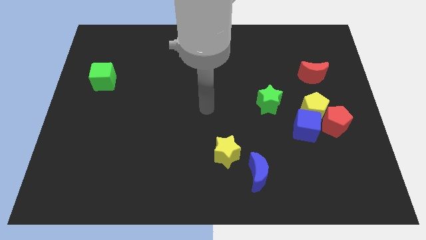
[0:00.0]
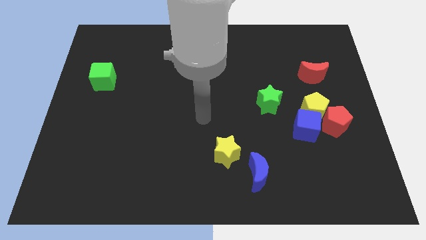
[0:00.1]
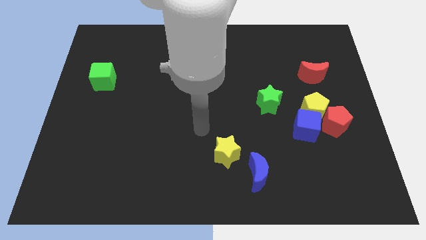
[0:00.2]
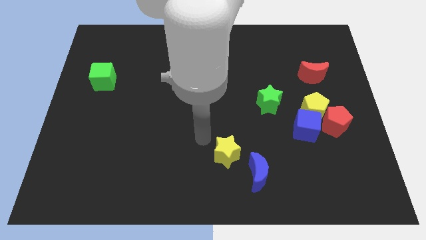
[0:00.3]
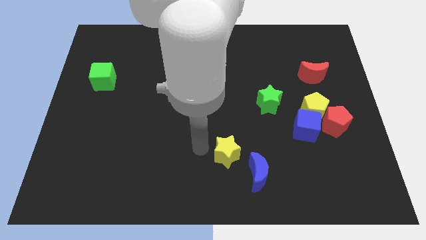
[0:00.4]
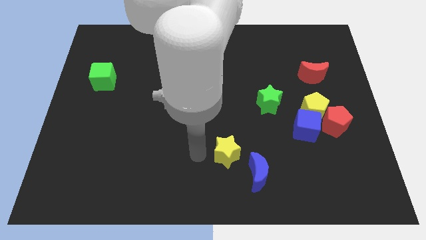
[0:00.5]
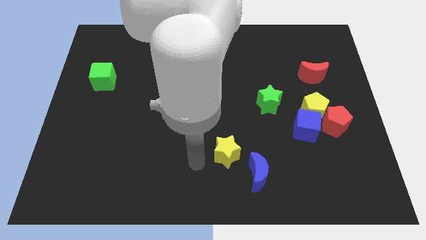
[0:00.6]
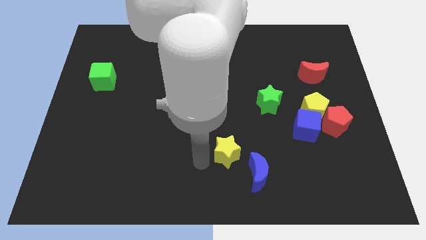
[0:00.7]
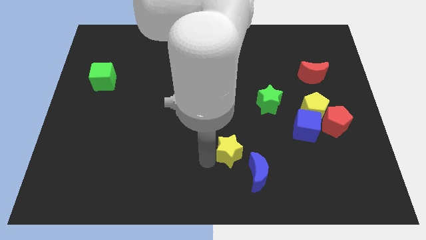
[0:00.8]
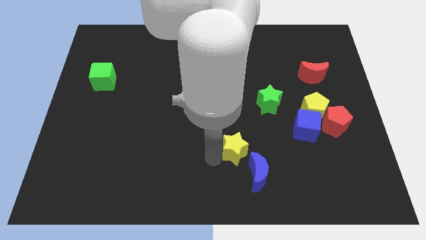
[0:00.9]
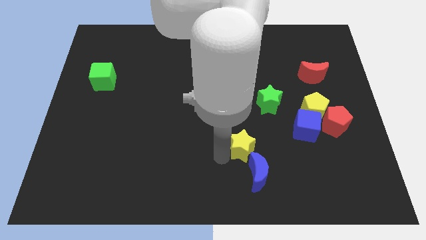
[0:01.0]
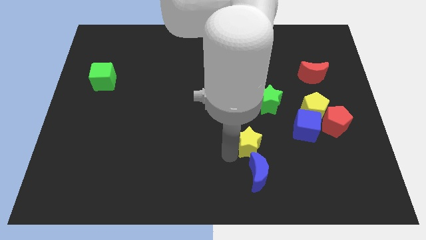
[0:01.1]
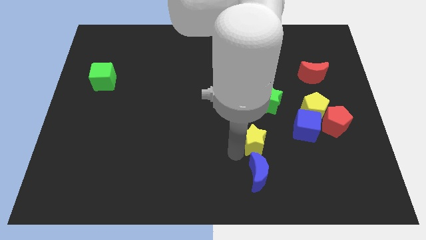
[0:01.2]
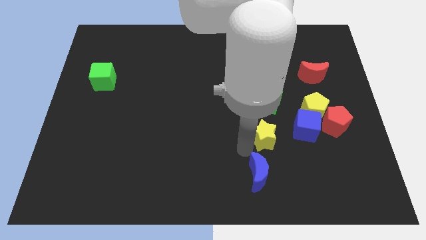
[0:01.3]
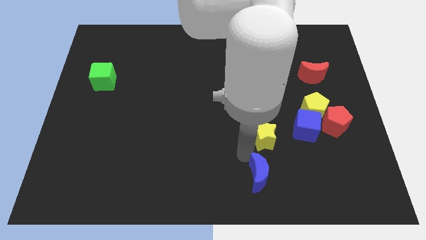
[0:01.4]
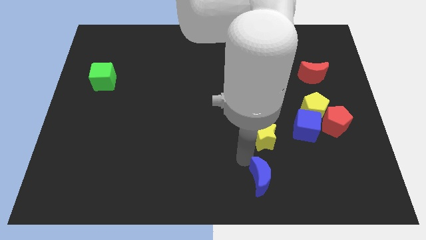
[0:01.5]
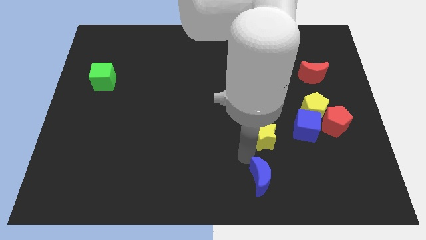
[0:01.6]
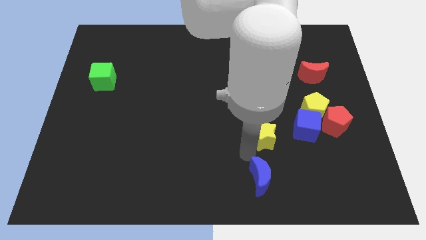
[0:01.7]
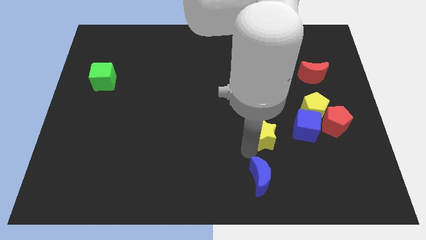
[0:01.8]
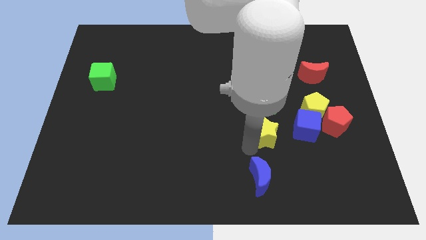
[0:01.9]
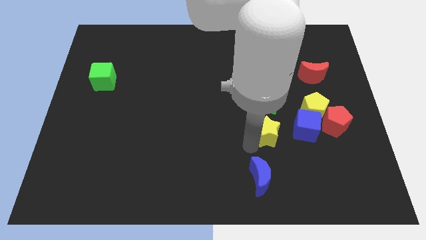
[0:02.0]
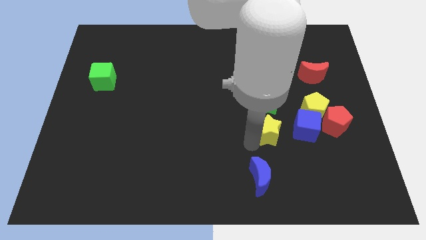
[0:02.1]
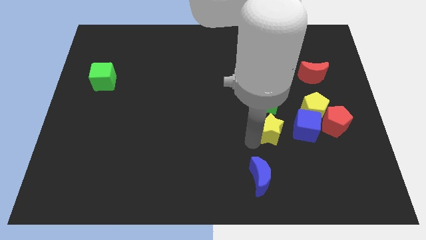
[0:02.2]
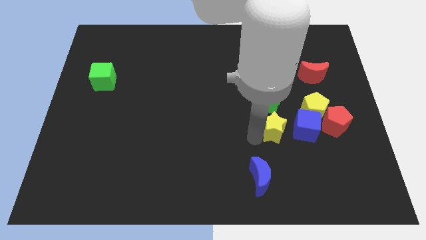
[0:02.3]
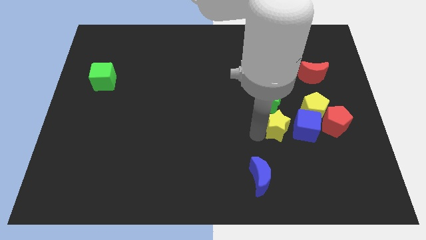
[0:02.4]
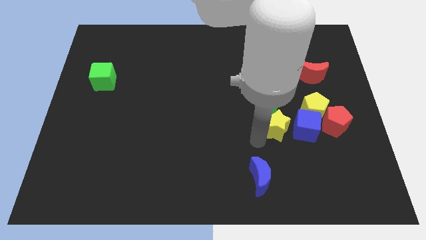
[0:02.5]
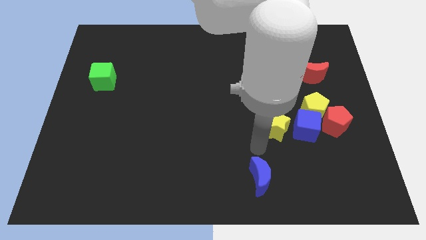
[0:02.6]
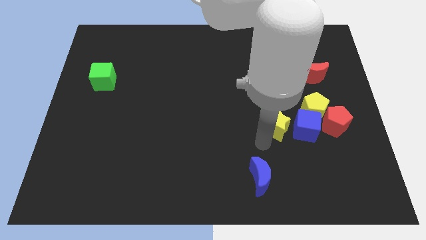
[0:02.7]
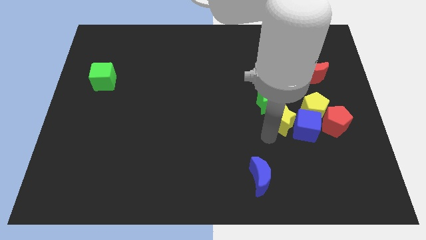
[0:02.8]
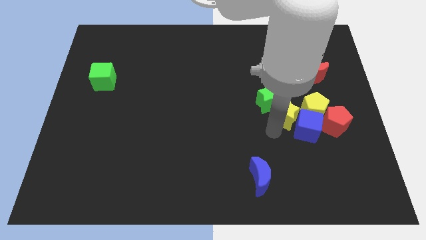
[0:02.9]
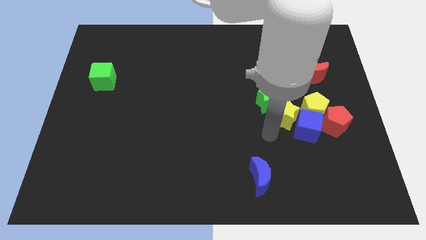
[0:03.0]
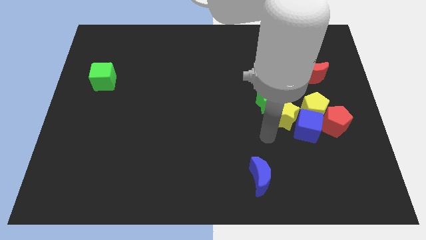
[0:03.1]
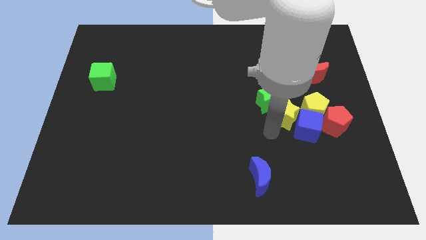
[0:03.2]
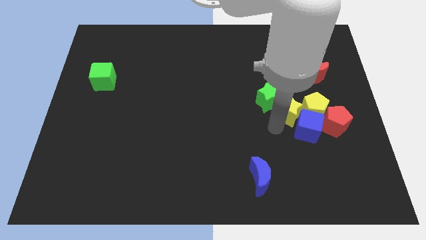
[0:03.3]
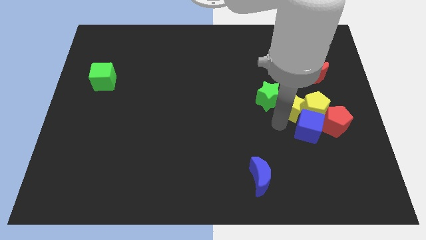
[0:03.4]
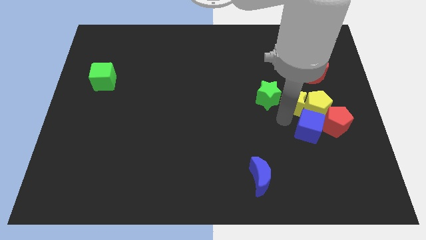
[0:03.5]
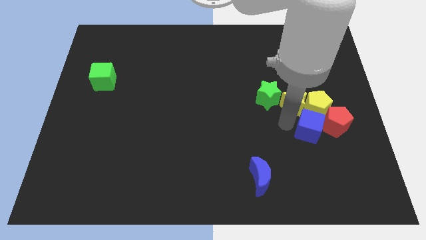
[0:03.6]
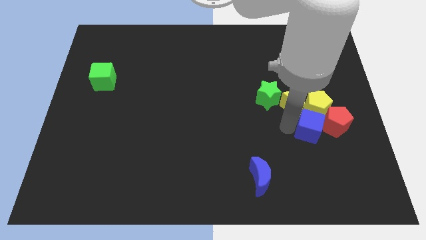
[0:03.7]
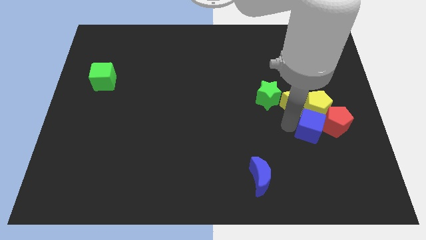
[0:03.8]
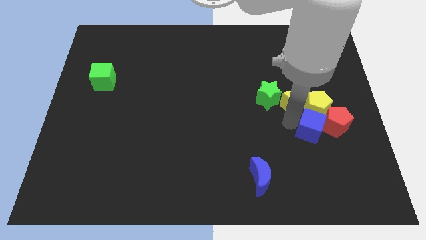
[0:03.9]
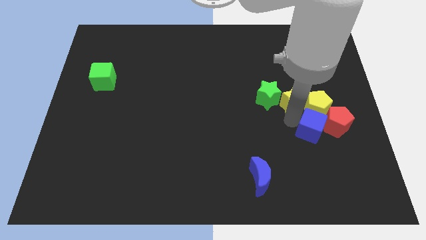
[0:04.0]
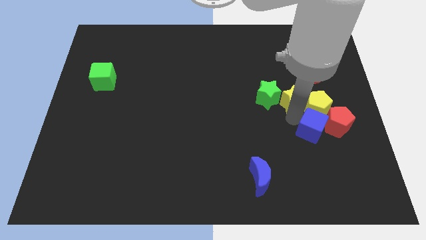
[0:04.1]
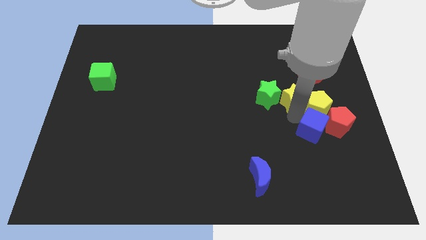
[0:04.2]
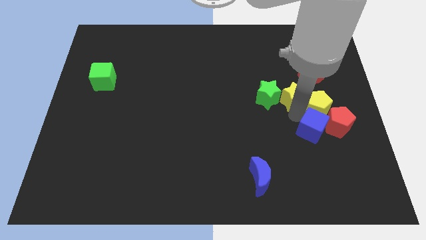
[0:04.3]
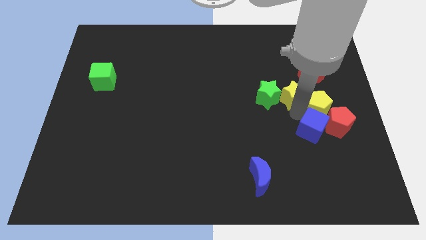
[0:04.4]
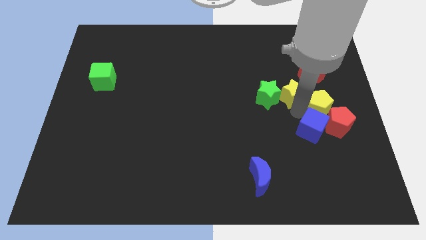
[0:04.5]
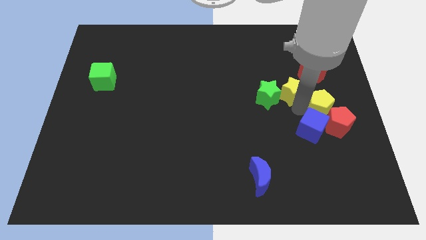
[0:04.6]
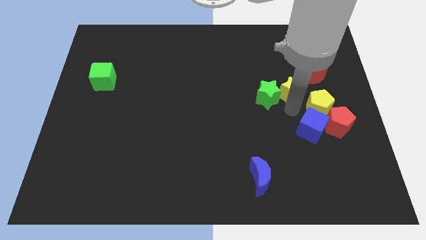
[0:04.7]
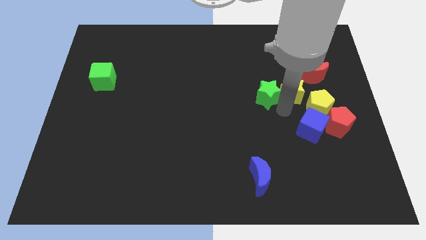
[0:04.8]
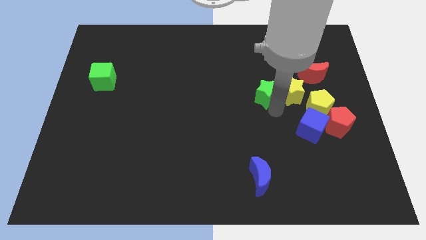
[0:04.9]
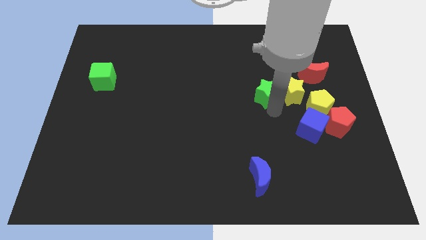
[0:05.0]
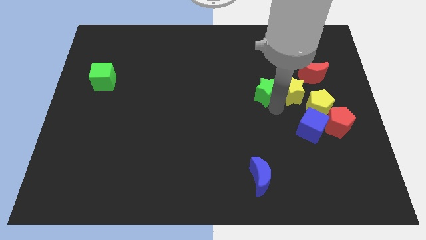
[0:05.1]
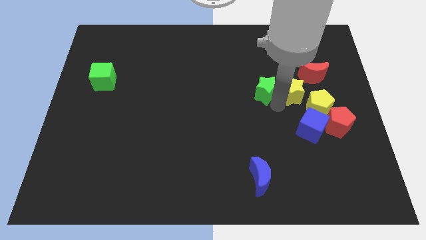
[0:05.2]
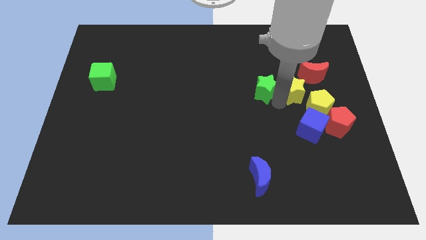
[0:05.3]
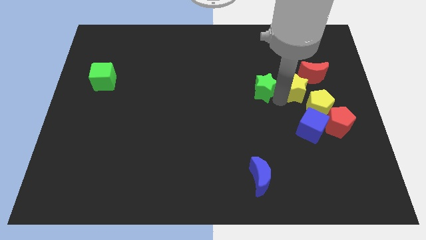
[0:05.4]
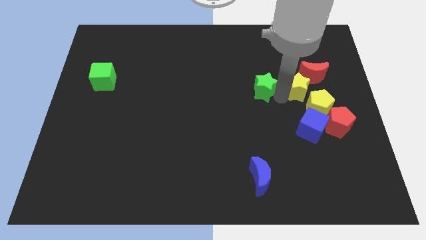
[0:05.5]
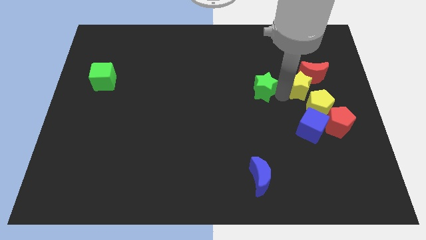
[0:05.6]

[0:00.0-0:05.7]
move the yellow star towards the red moon
